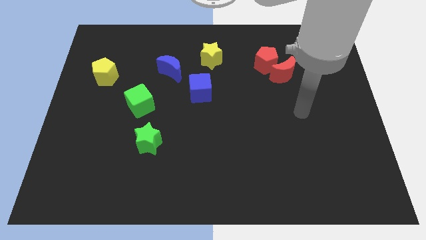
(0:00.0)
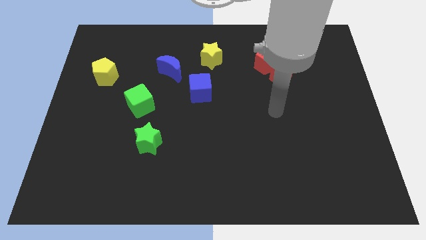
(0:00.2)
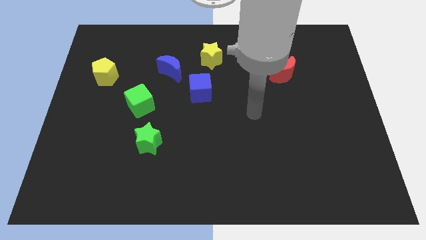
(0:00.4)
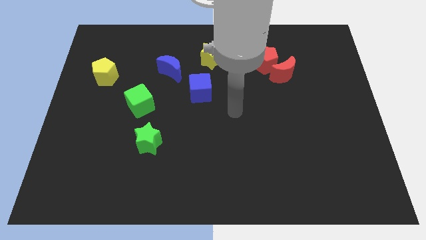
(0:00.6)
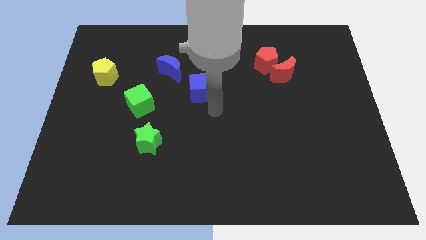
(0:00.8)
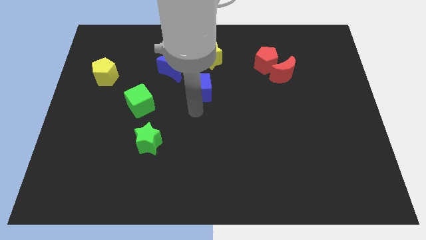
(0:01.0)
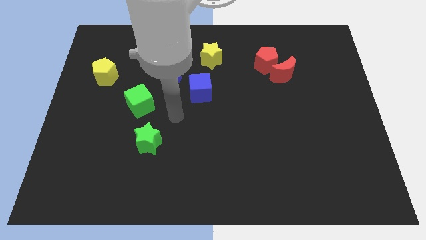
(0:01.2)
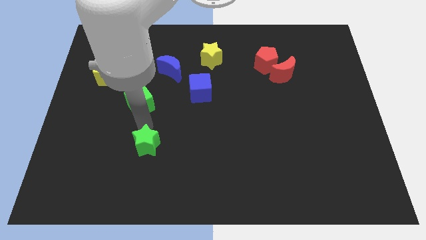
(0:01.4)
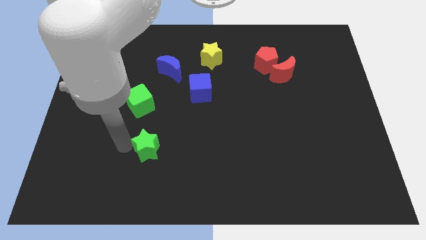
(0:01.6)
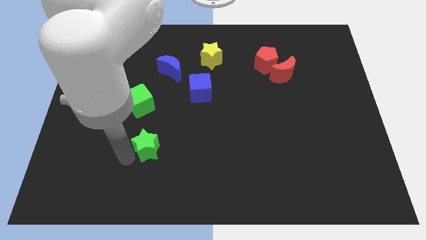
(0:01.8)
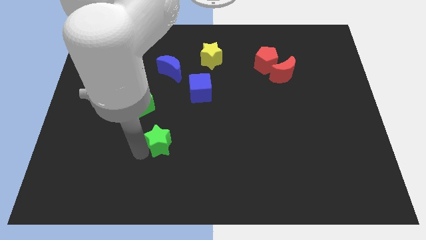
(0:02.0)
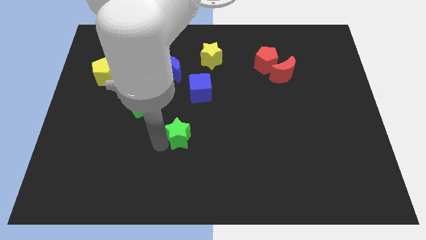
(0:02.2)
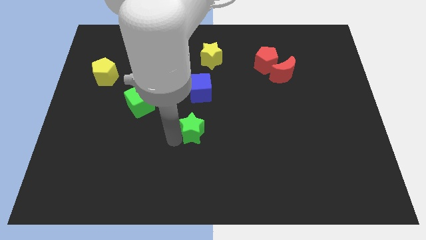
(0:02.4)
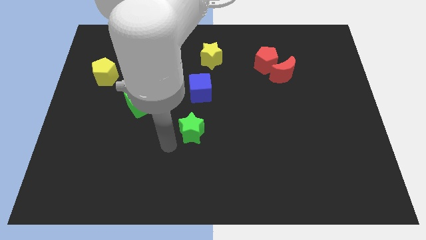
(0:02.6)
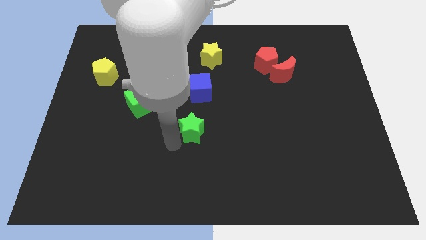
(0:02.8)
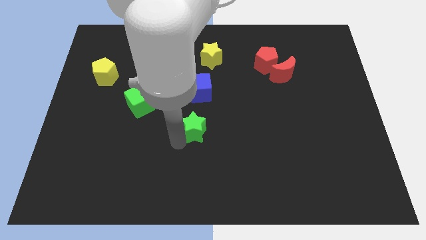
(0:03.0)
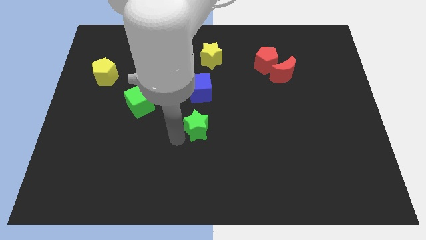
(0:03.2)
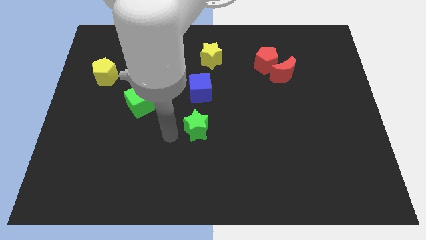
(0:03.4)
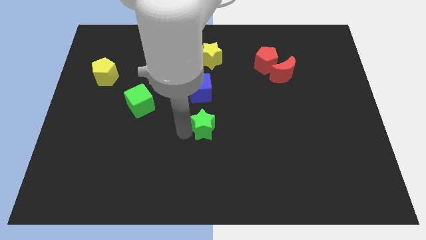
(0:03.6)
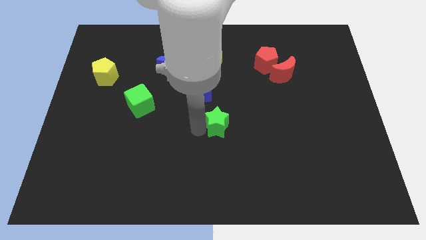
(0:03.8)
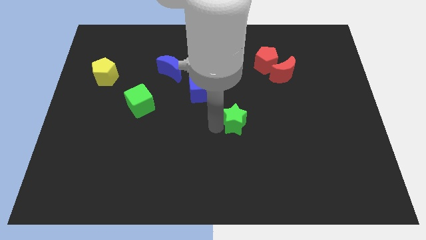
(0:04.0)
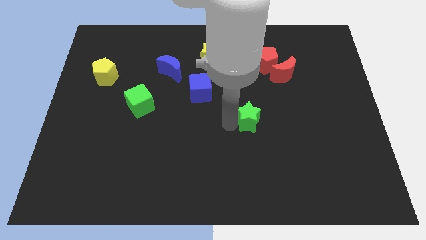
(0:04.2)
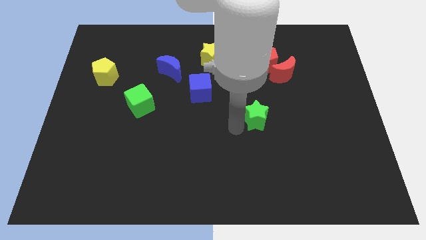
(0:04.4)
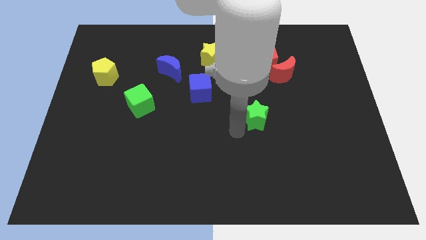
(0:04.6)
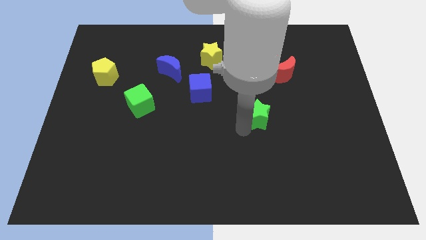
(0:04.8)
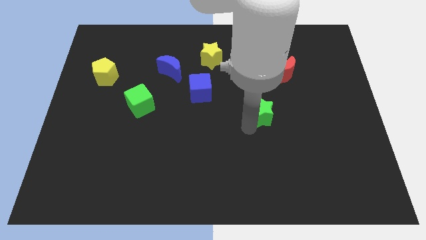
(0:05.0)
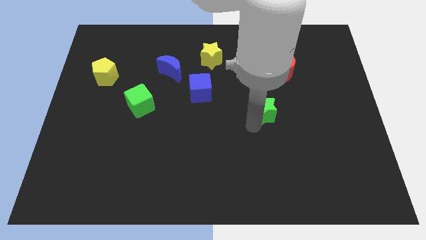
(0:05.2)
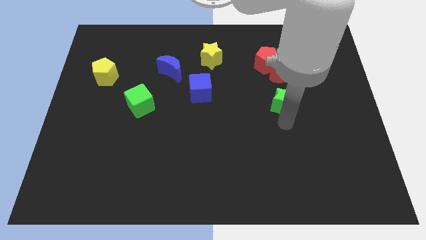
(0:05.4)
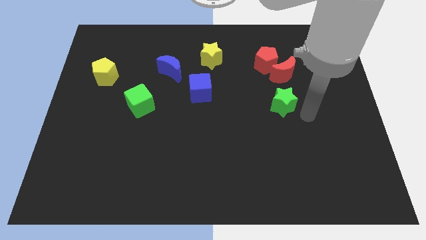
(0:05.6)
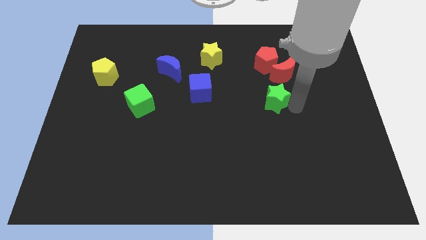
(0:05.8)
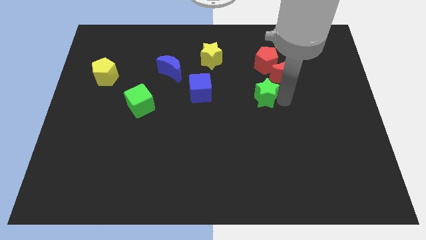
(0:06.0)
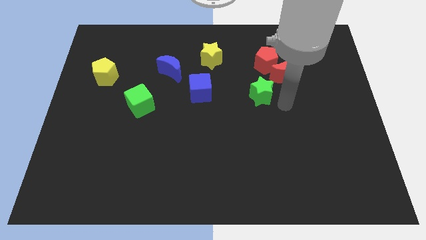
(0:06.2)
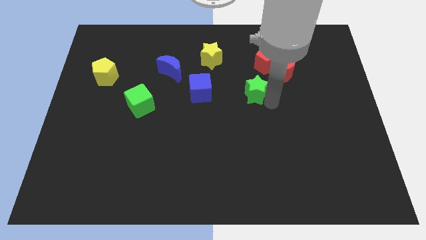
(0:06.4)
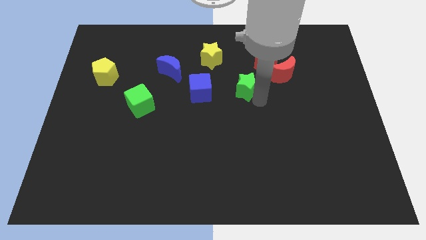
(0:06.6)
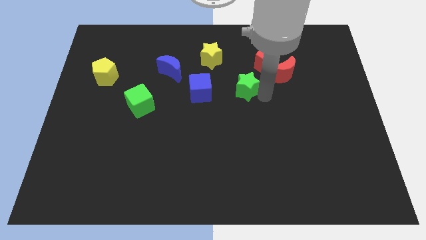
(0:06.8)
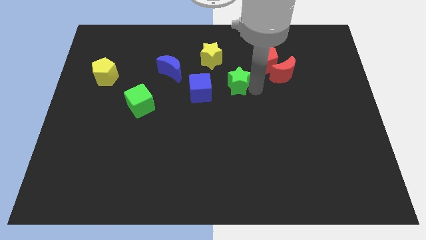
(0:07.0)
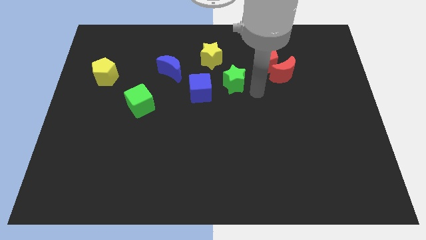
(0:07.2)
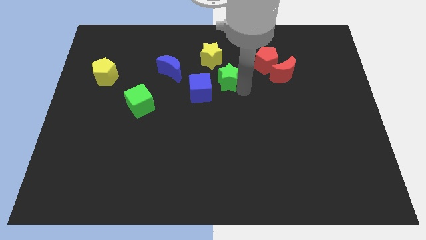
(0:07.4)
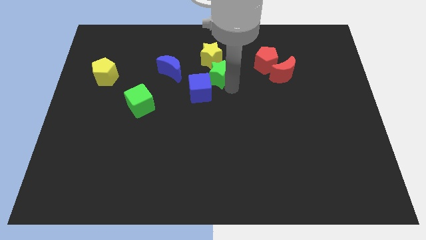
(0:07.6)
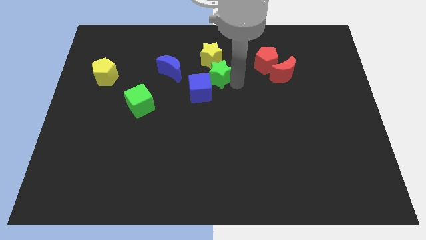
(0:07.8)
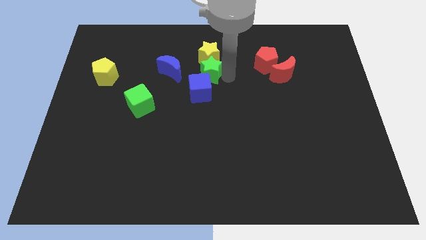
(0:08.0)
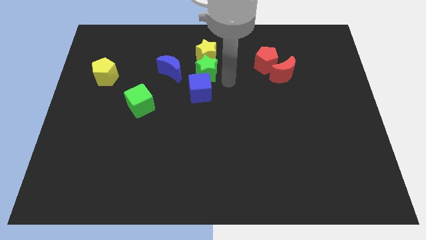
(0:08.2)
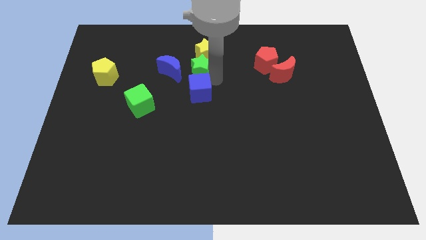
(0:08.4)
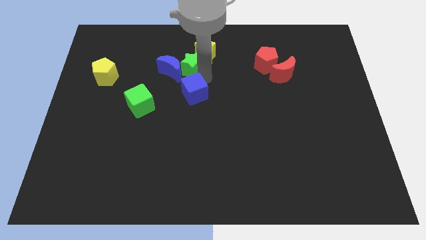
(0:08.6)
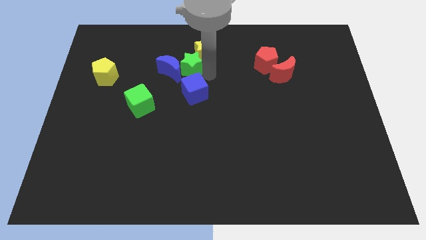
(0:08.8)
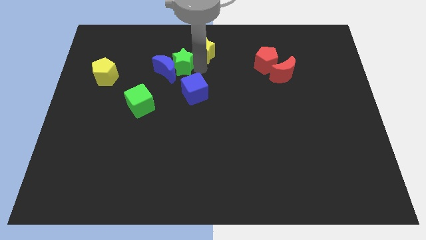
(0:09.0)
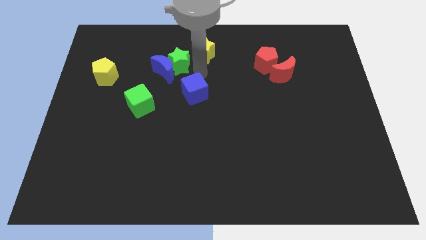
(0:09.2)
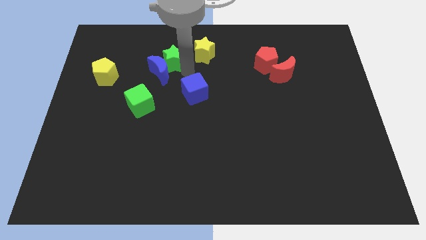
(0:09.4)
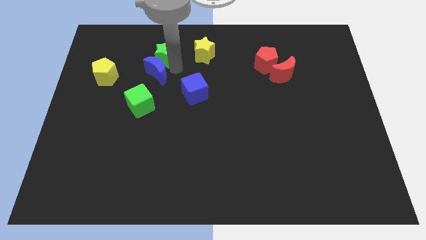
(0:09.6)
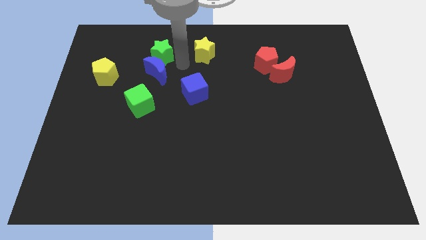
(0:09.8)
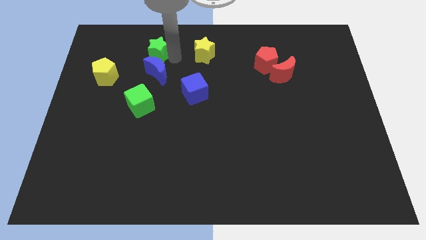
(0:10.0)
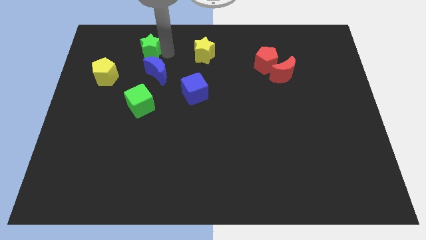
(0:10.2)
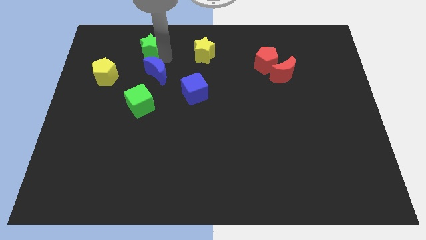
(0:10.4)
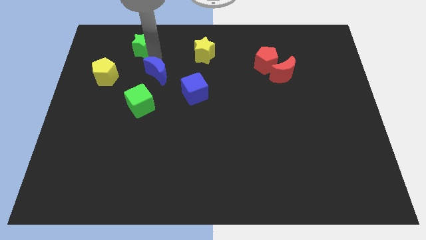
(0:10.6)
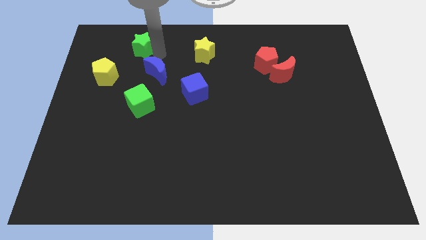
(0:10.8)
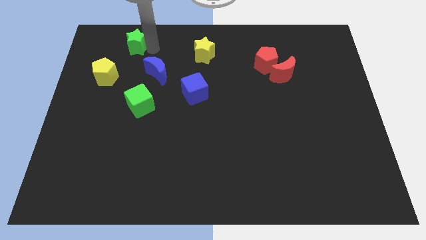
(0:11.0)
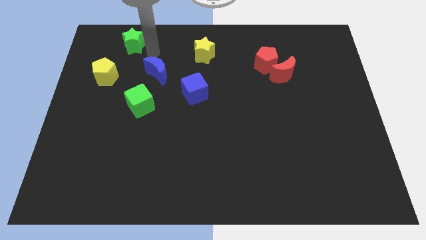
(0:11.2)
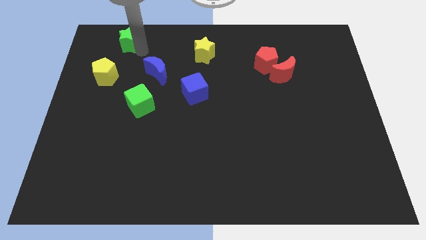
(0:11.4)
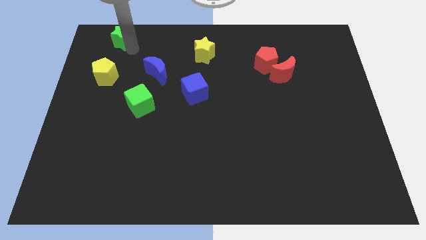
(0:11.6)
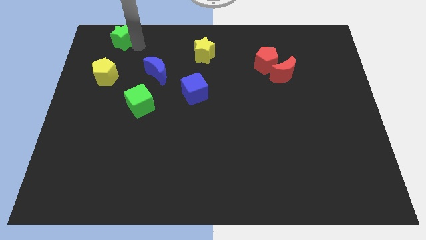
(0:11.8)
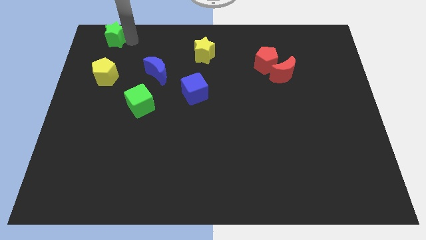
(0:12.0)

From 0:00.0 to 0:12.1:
slide the green star to the top left

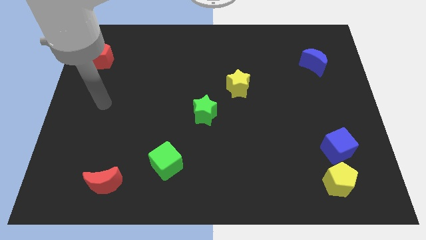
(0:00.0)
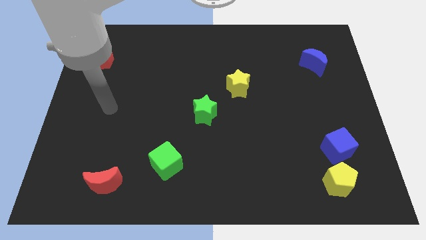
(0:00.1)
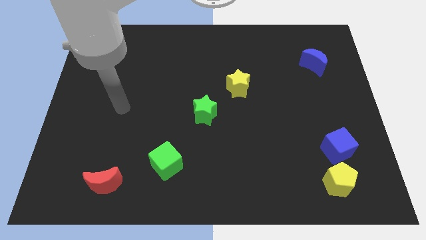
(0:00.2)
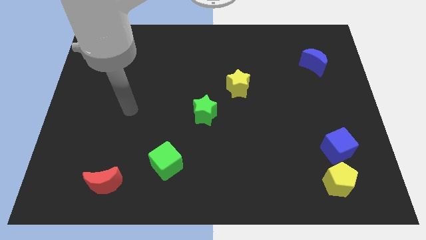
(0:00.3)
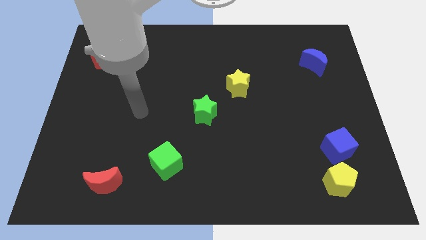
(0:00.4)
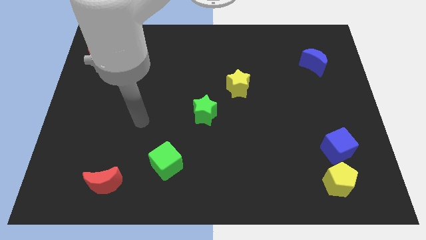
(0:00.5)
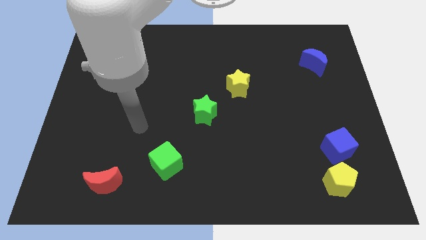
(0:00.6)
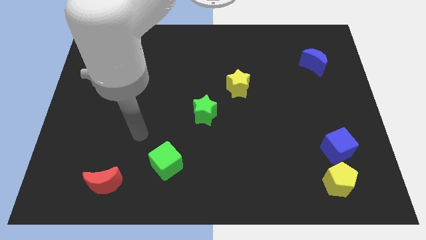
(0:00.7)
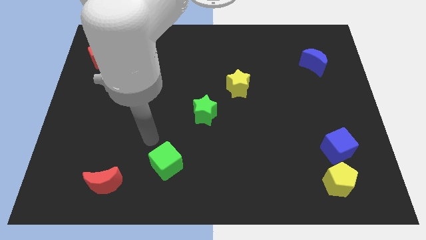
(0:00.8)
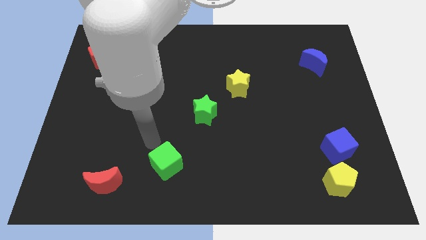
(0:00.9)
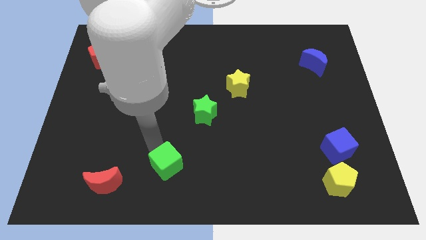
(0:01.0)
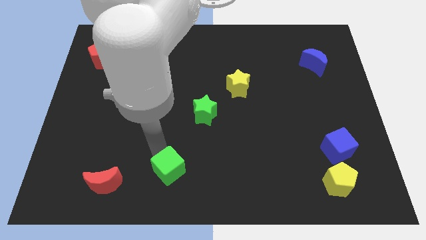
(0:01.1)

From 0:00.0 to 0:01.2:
put the green cube to the bottom

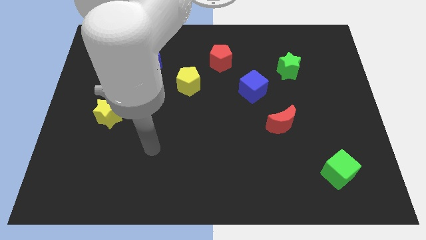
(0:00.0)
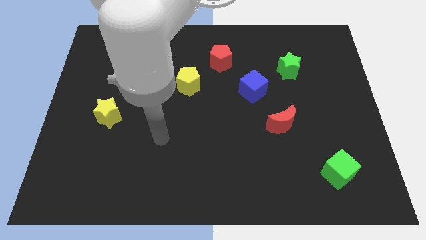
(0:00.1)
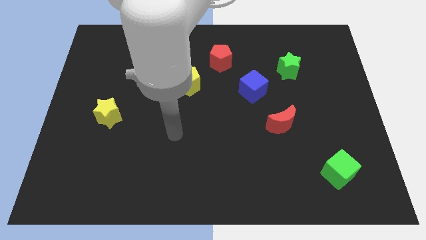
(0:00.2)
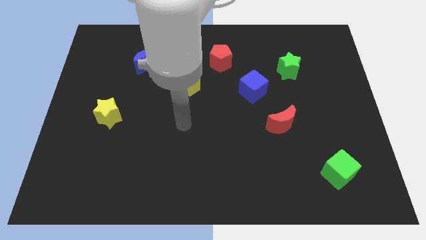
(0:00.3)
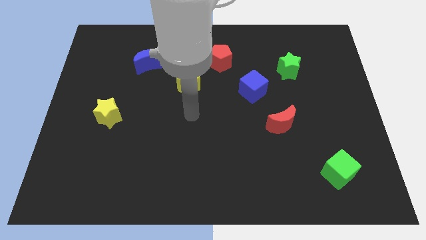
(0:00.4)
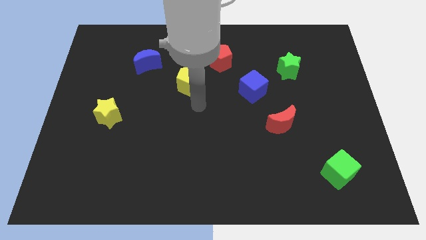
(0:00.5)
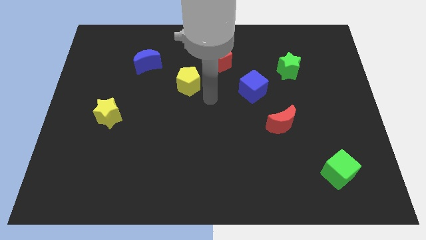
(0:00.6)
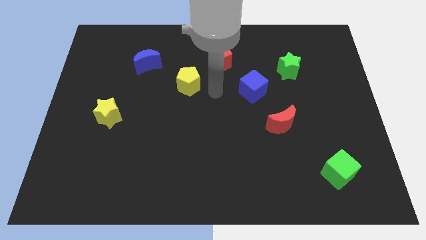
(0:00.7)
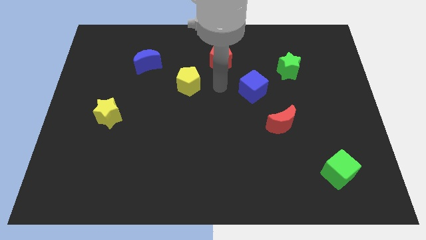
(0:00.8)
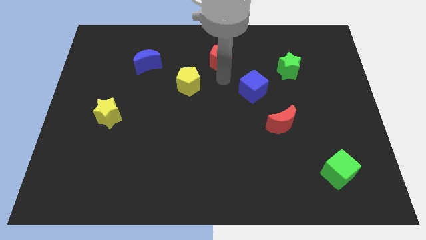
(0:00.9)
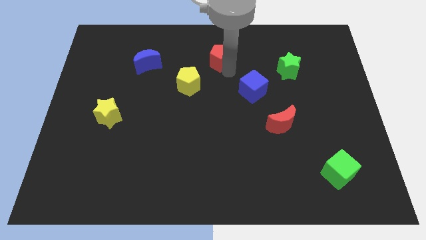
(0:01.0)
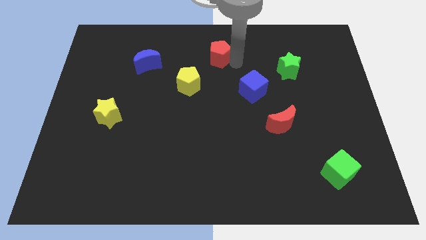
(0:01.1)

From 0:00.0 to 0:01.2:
slide the red pentagon to the top
